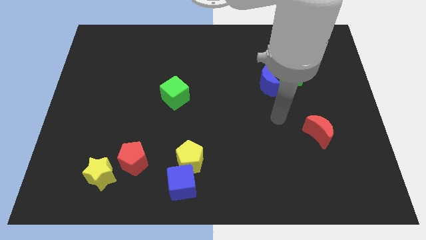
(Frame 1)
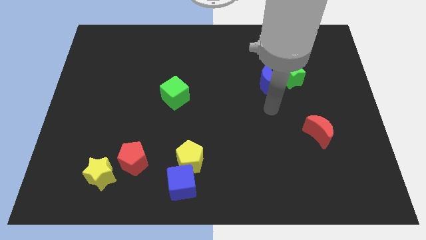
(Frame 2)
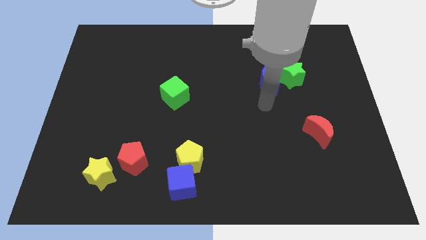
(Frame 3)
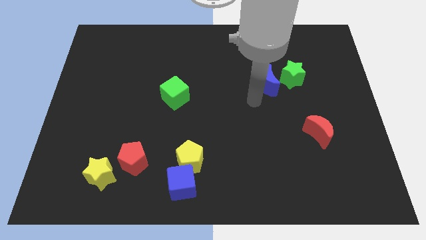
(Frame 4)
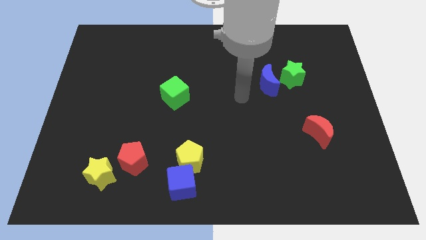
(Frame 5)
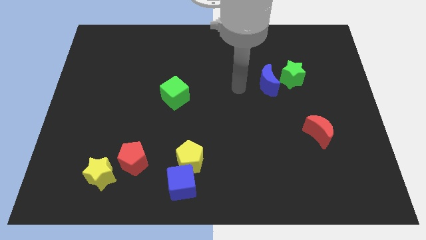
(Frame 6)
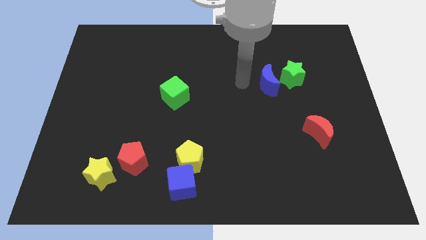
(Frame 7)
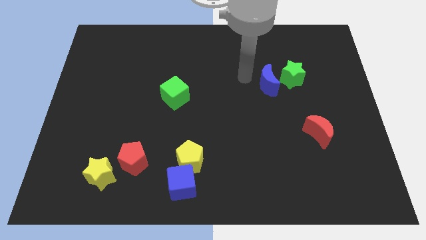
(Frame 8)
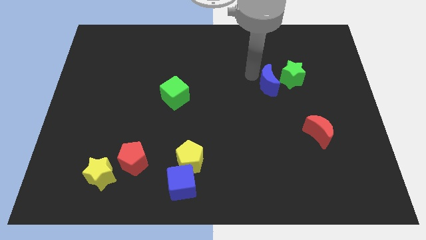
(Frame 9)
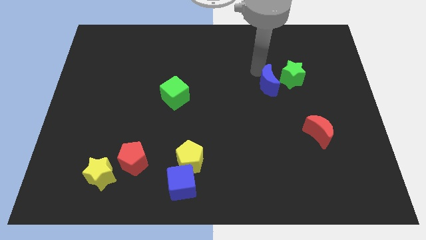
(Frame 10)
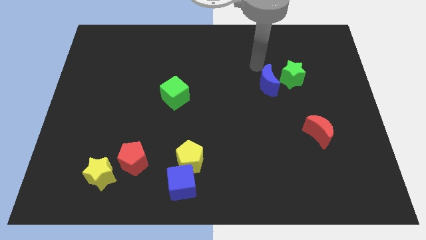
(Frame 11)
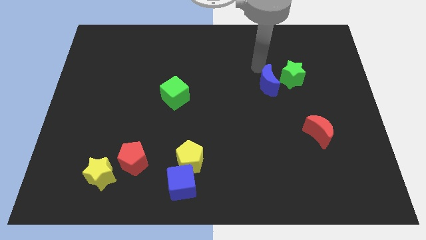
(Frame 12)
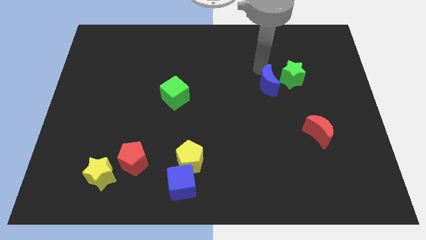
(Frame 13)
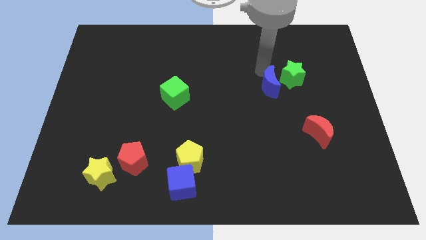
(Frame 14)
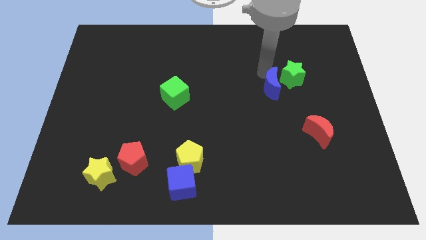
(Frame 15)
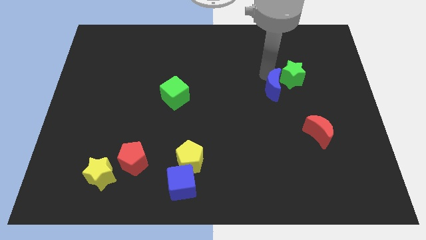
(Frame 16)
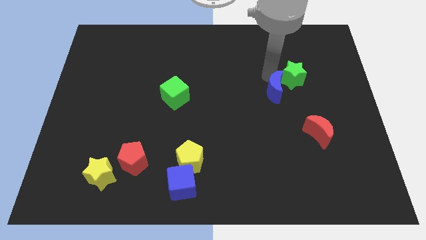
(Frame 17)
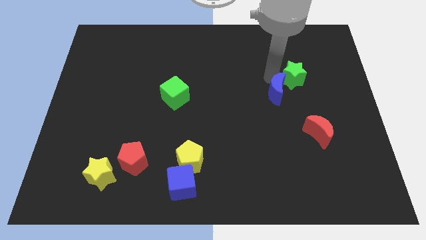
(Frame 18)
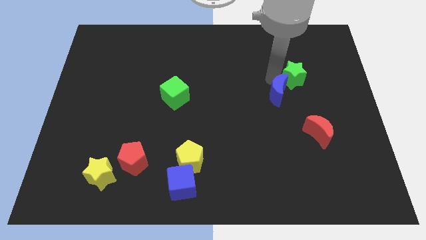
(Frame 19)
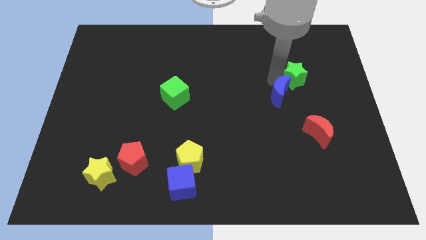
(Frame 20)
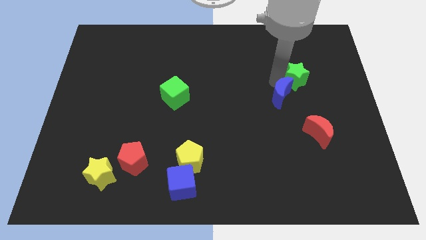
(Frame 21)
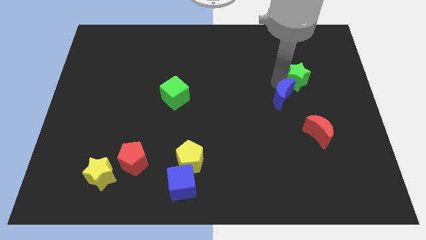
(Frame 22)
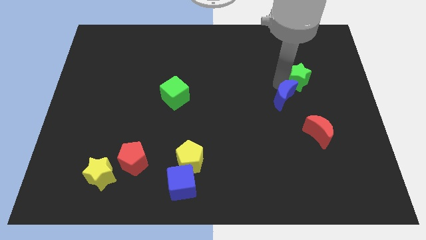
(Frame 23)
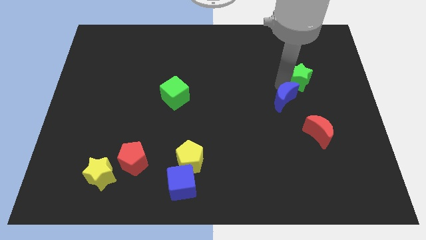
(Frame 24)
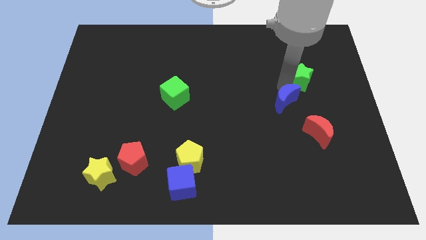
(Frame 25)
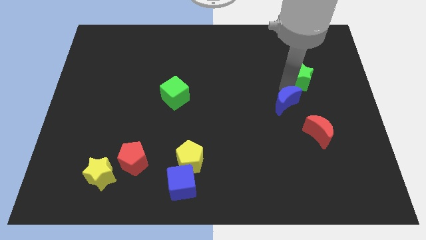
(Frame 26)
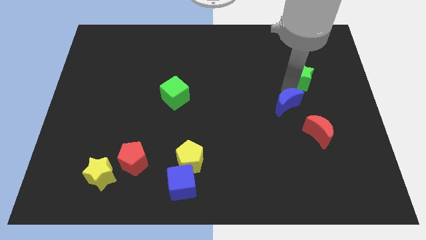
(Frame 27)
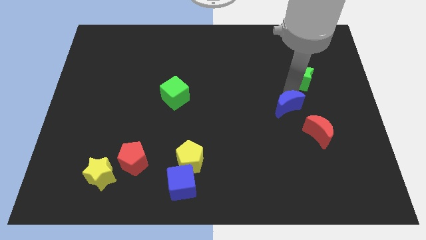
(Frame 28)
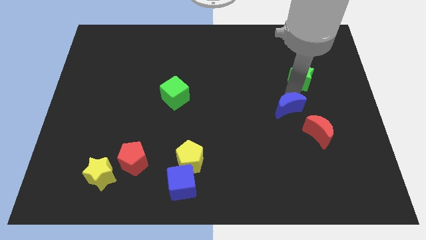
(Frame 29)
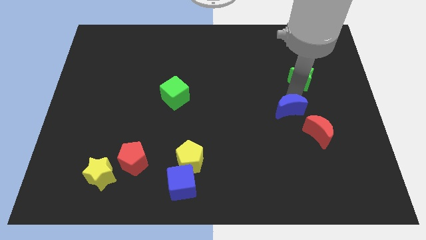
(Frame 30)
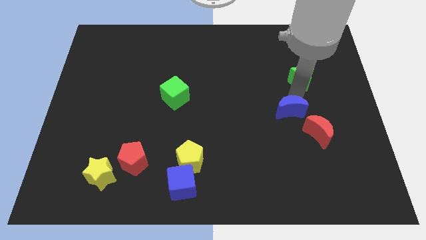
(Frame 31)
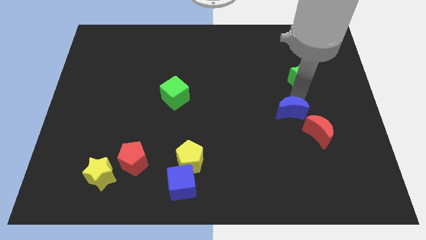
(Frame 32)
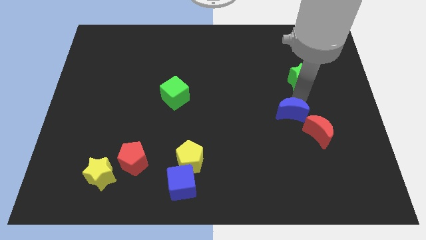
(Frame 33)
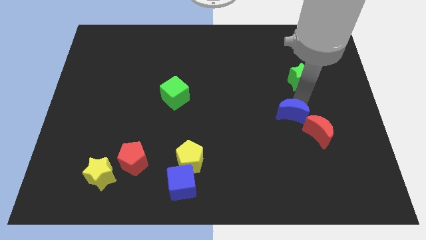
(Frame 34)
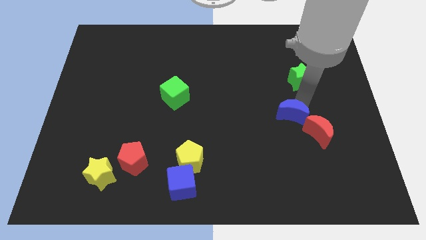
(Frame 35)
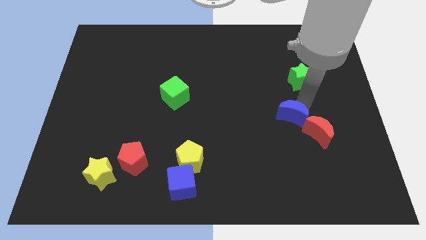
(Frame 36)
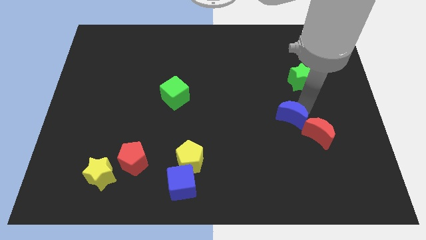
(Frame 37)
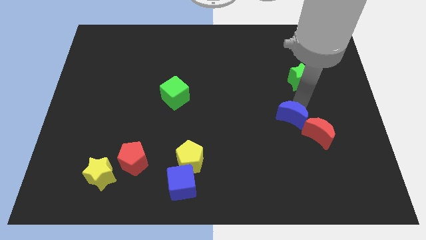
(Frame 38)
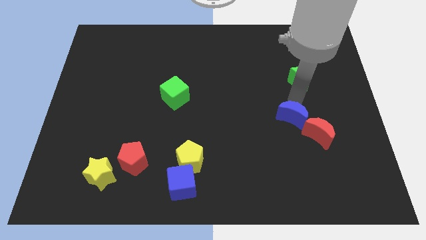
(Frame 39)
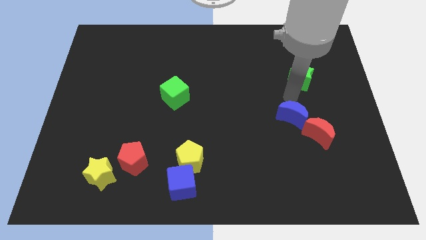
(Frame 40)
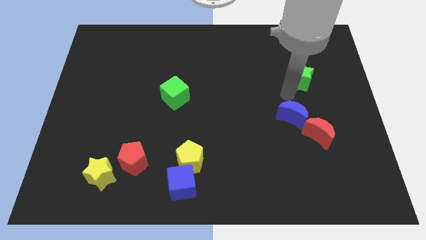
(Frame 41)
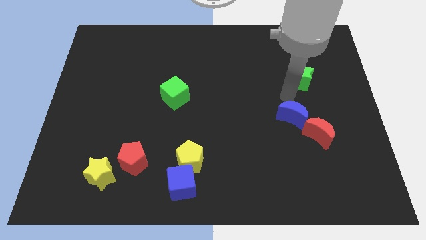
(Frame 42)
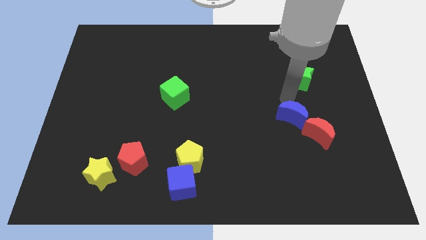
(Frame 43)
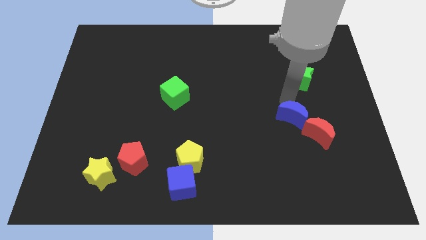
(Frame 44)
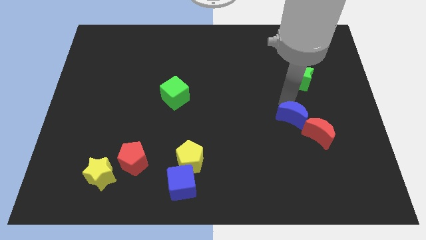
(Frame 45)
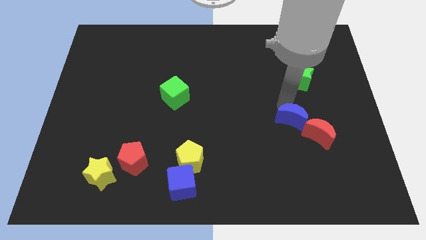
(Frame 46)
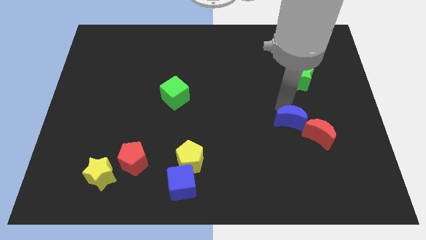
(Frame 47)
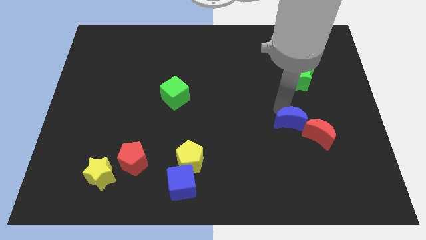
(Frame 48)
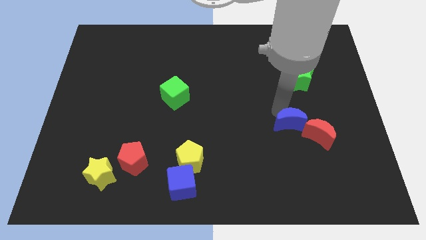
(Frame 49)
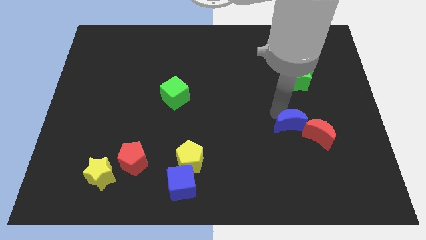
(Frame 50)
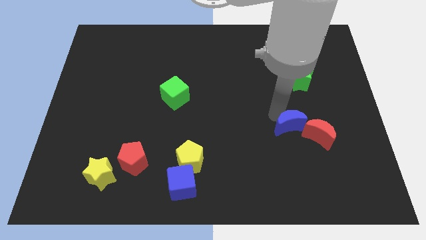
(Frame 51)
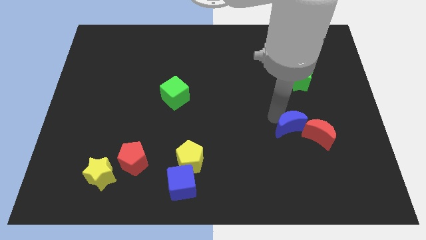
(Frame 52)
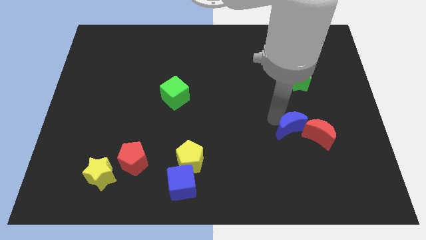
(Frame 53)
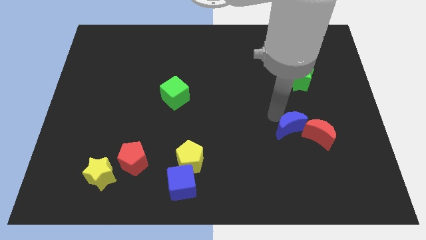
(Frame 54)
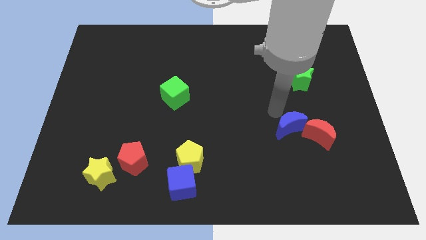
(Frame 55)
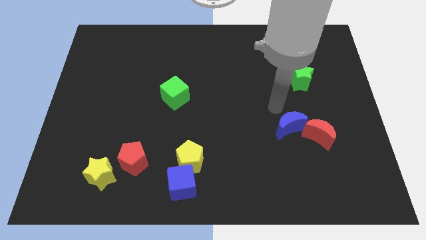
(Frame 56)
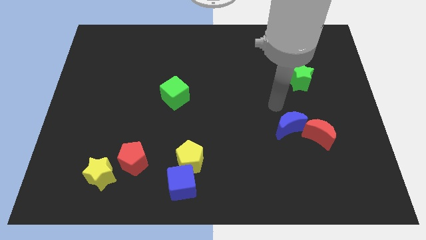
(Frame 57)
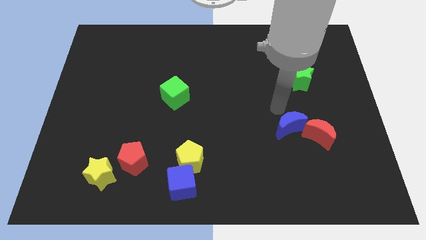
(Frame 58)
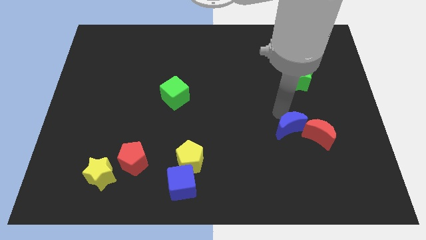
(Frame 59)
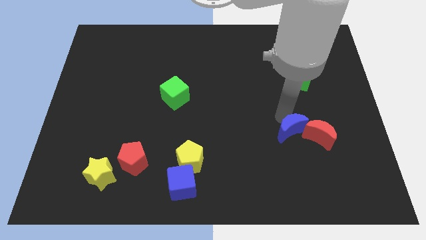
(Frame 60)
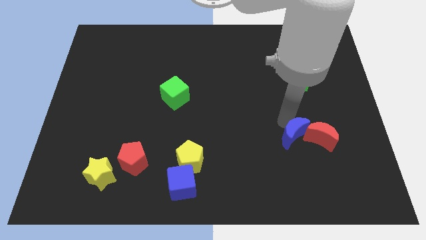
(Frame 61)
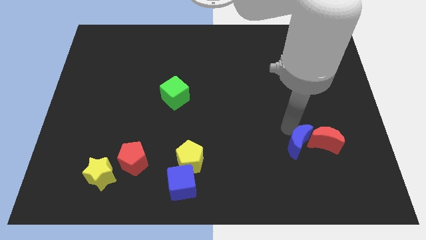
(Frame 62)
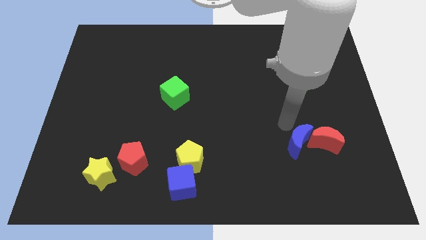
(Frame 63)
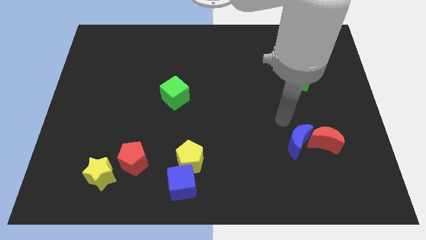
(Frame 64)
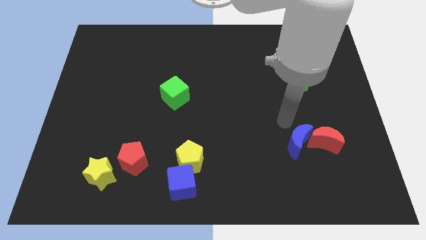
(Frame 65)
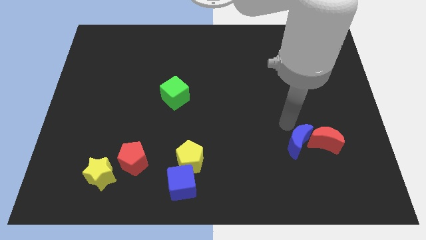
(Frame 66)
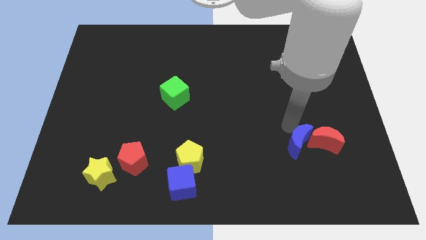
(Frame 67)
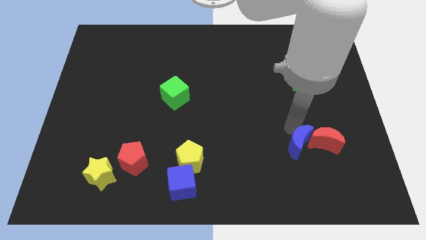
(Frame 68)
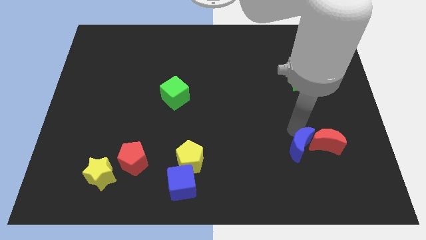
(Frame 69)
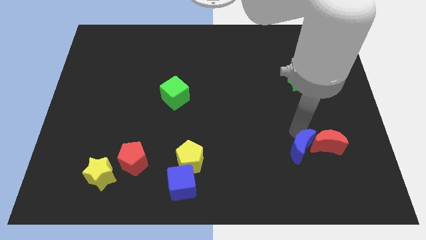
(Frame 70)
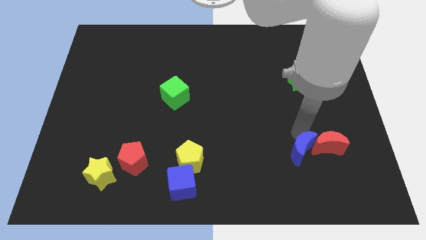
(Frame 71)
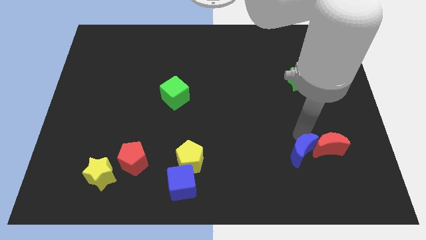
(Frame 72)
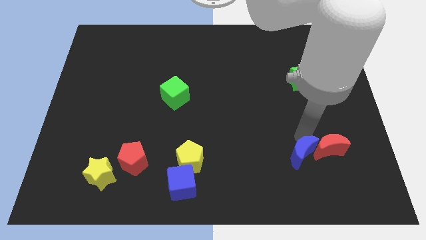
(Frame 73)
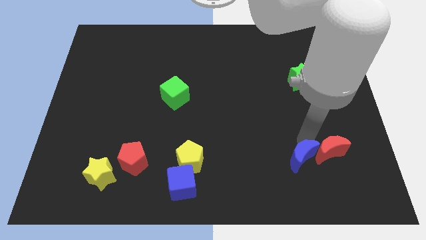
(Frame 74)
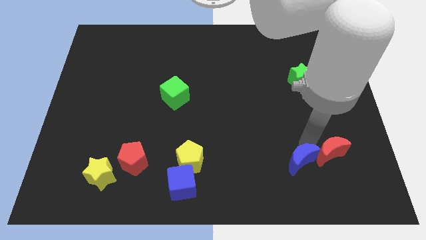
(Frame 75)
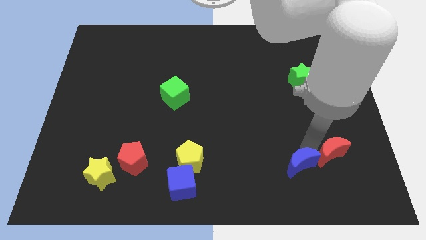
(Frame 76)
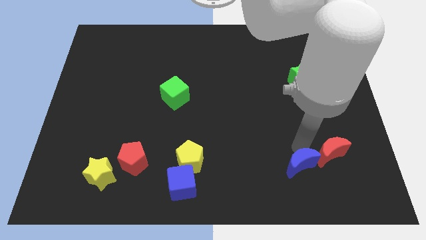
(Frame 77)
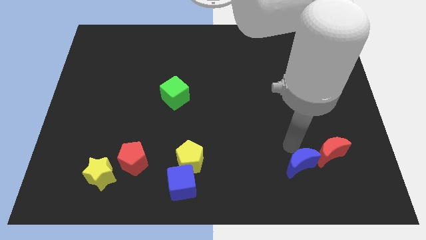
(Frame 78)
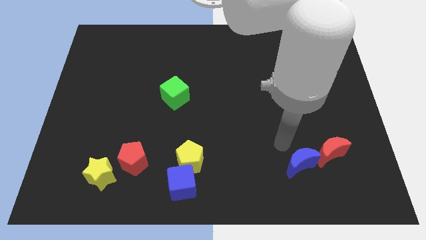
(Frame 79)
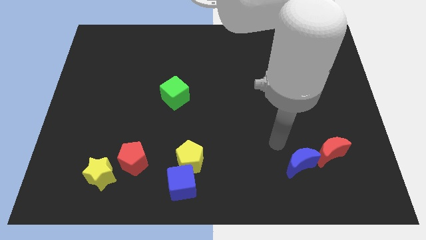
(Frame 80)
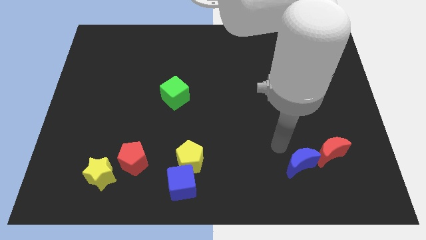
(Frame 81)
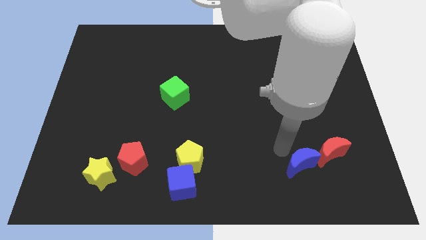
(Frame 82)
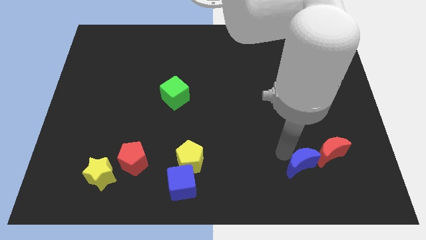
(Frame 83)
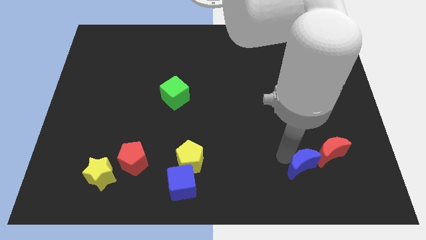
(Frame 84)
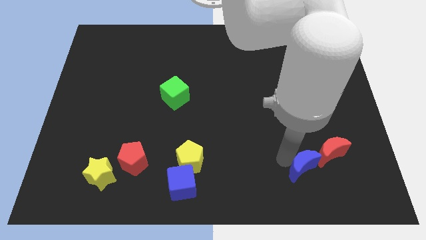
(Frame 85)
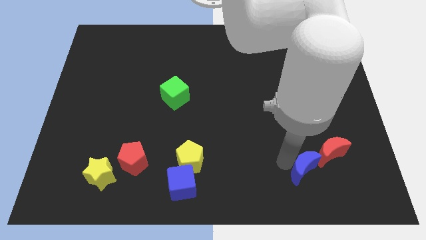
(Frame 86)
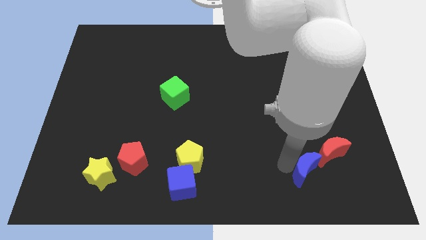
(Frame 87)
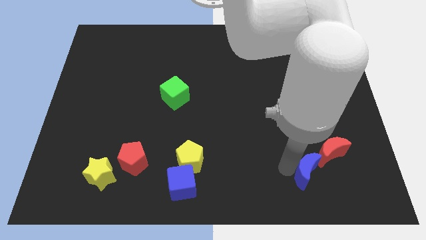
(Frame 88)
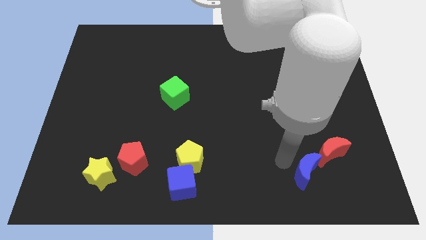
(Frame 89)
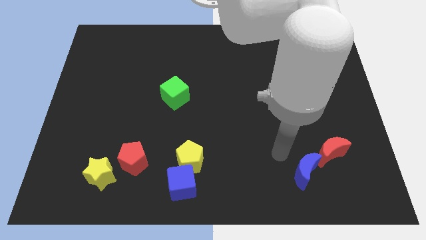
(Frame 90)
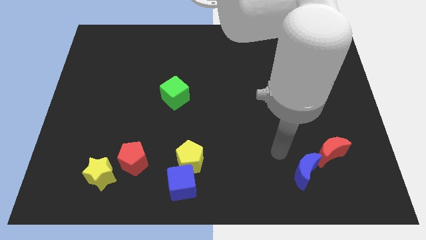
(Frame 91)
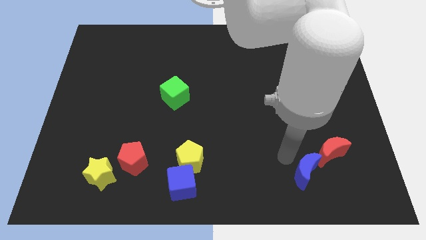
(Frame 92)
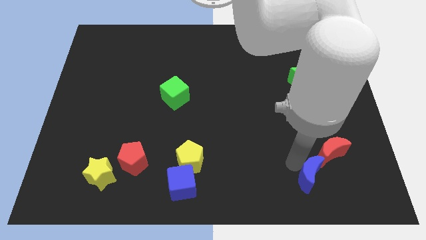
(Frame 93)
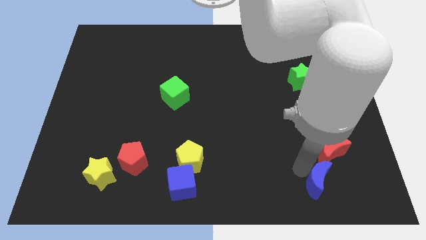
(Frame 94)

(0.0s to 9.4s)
slide the blue moon to the bottom of the red moon
